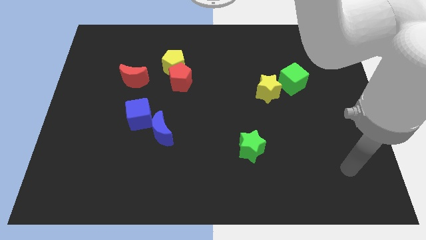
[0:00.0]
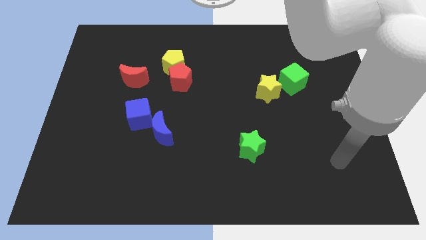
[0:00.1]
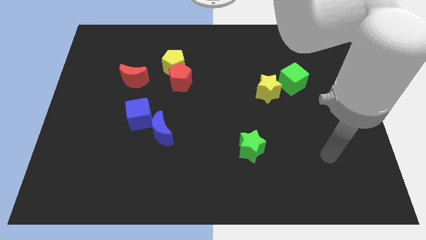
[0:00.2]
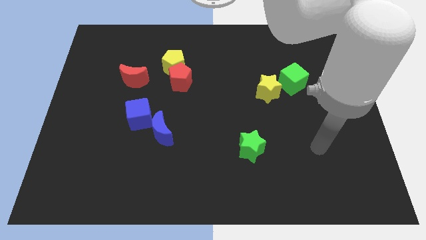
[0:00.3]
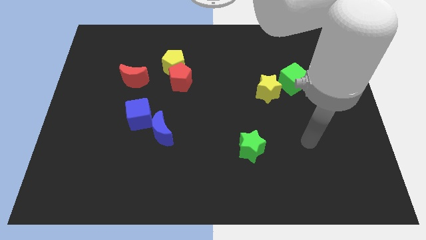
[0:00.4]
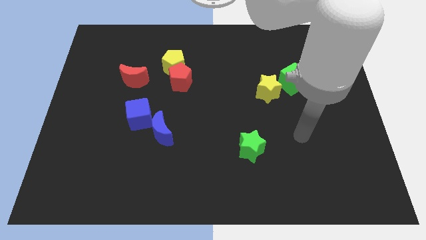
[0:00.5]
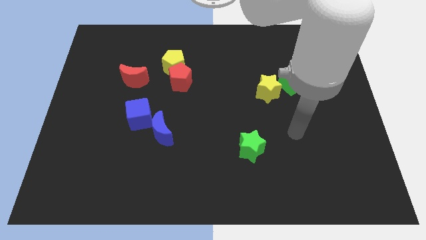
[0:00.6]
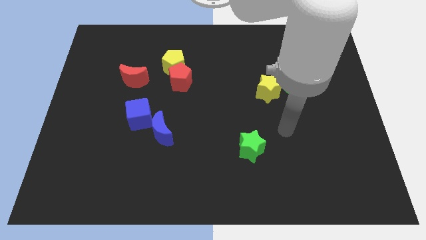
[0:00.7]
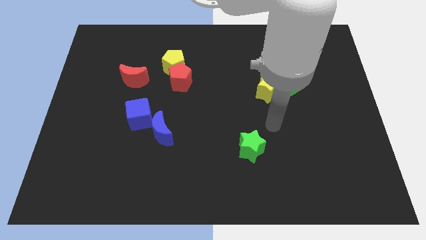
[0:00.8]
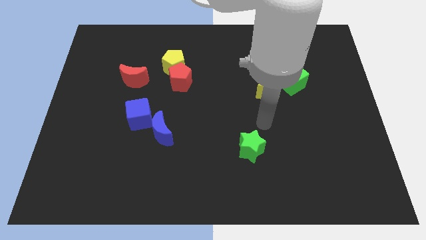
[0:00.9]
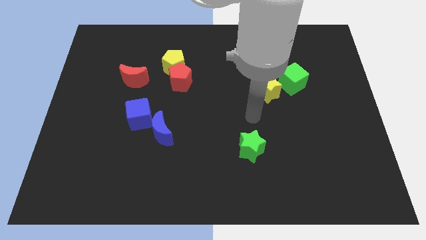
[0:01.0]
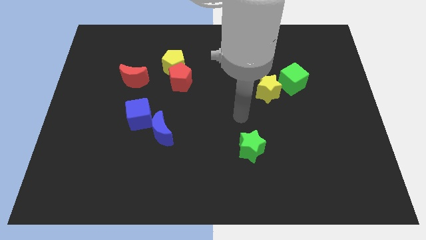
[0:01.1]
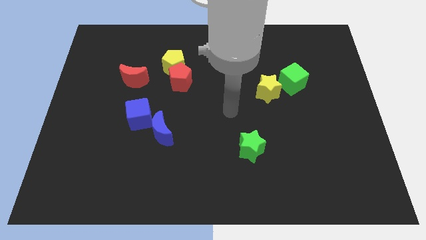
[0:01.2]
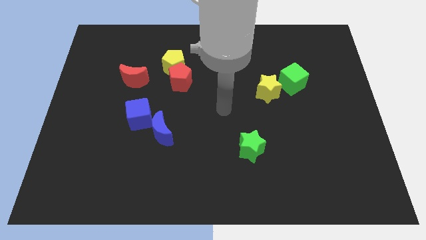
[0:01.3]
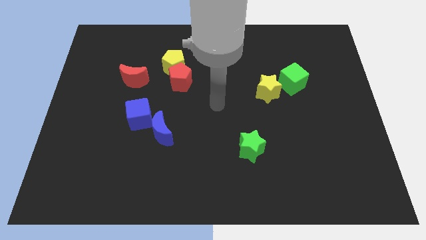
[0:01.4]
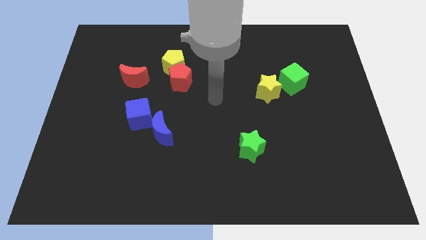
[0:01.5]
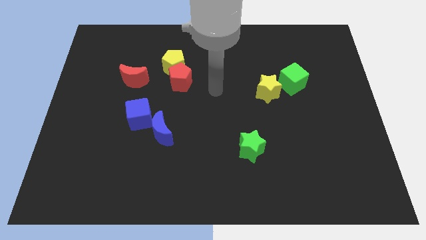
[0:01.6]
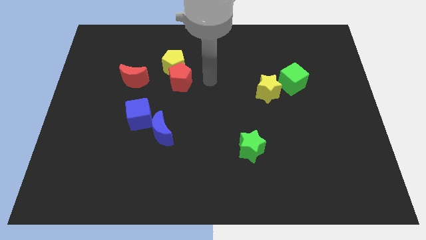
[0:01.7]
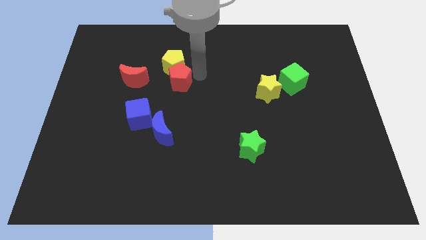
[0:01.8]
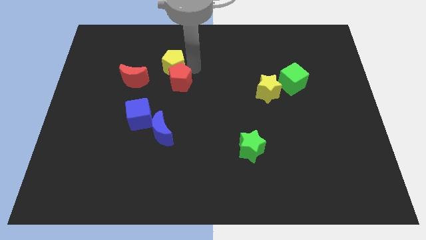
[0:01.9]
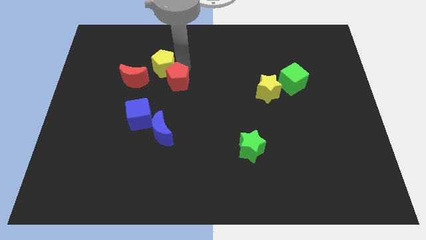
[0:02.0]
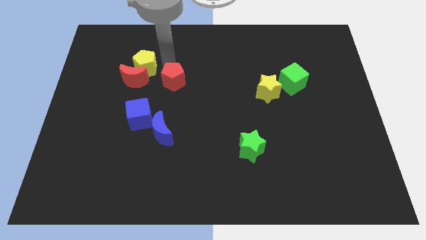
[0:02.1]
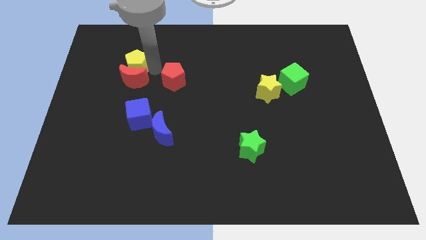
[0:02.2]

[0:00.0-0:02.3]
move the red pentagon away from the yellow pentagon

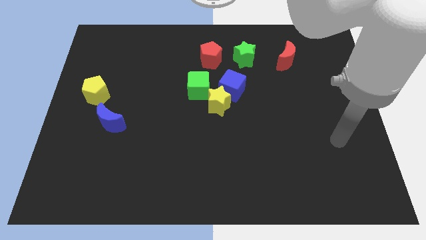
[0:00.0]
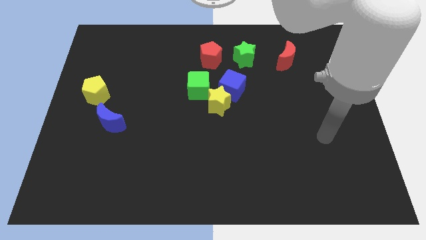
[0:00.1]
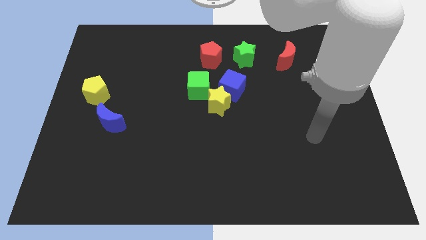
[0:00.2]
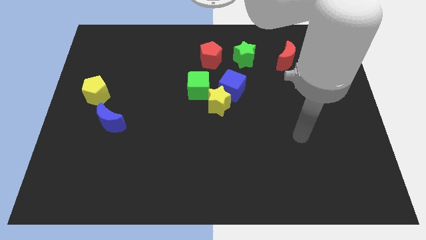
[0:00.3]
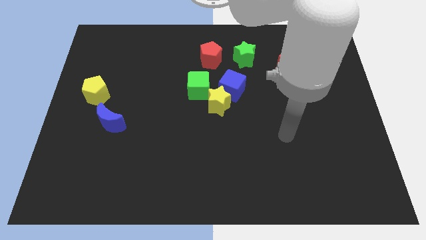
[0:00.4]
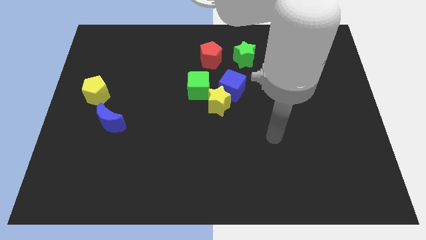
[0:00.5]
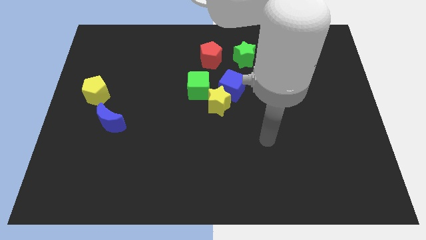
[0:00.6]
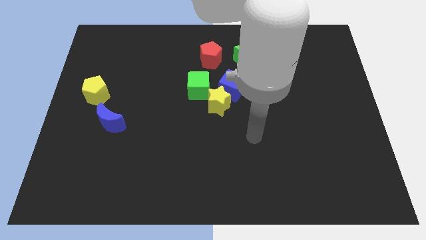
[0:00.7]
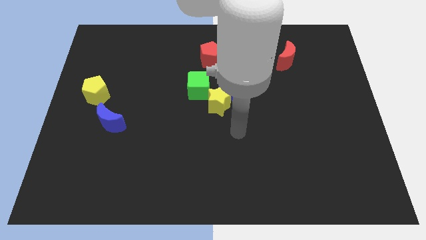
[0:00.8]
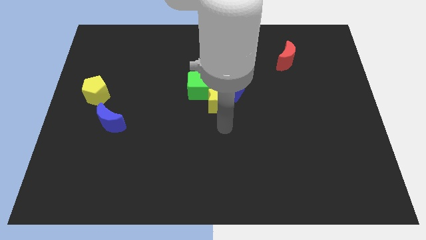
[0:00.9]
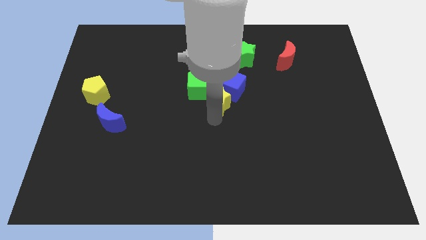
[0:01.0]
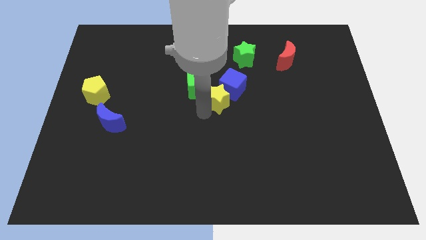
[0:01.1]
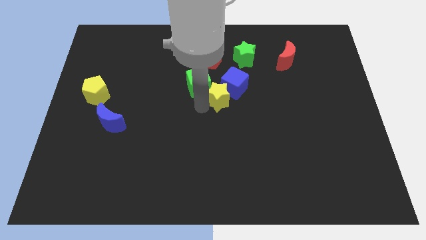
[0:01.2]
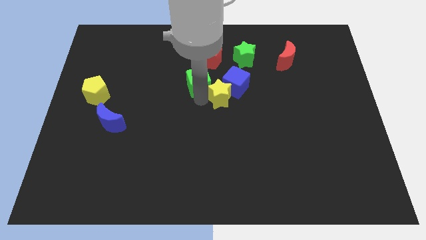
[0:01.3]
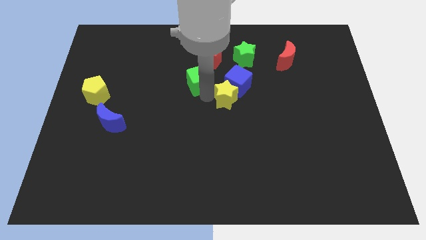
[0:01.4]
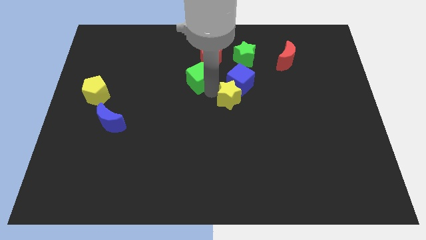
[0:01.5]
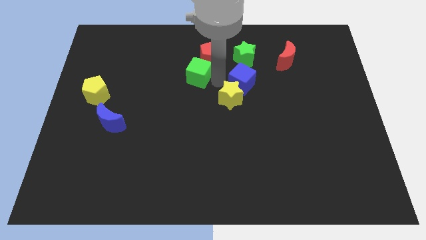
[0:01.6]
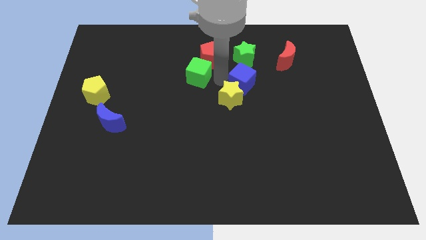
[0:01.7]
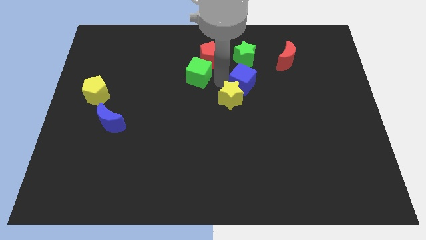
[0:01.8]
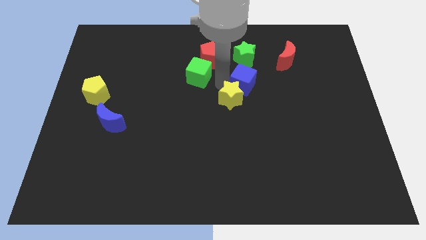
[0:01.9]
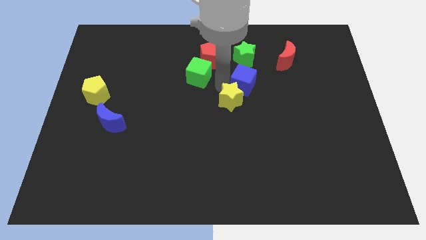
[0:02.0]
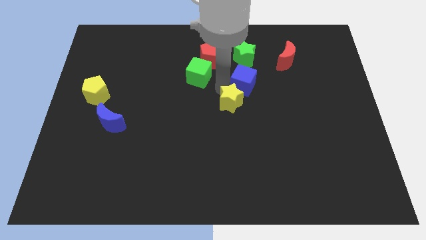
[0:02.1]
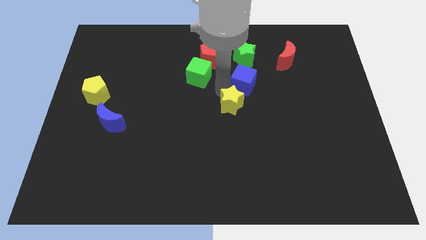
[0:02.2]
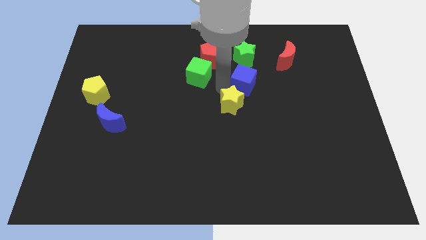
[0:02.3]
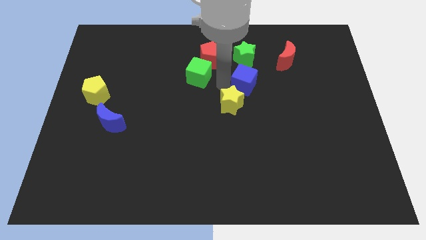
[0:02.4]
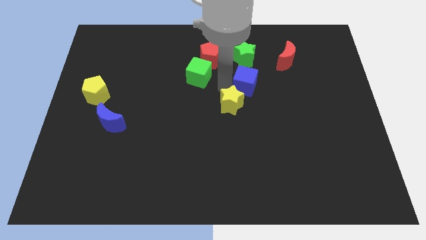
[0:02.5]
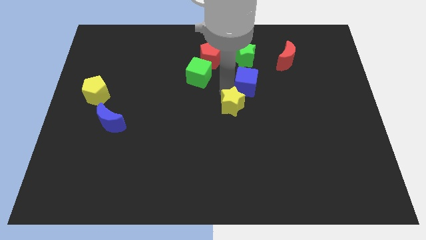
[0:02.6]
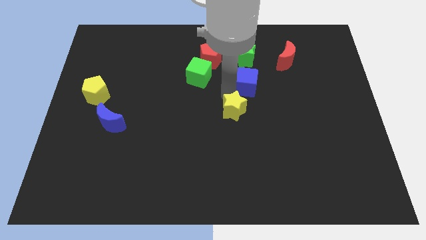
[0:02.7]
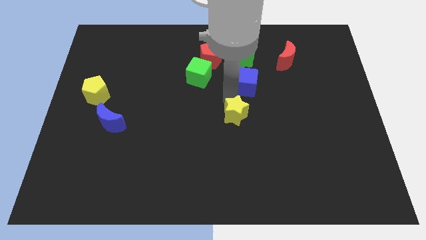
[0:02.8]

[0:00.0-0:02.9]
separate the yellow star from the blue cube and green cube

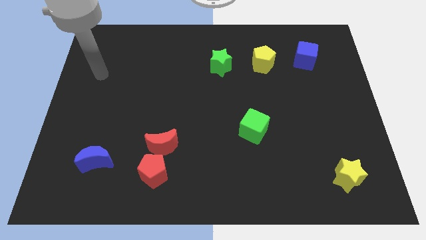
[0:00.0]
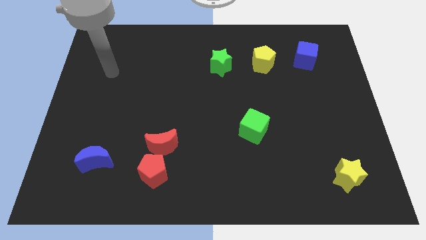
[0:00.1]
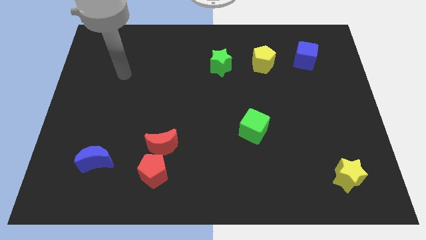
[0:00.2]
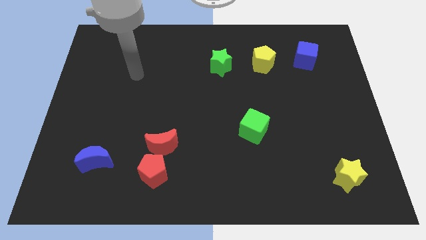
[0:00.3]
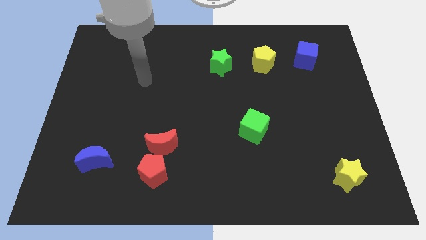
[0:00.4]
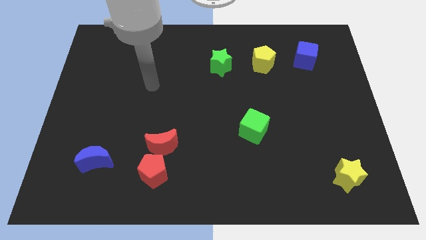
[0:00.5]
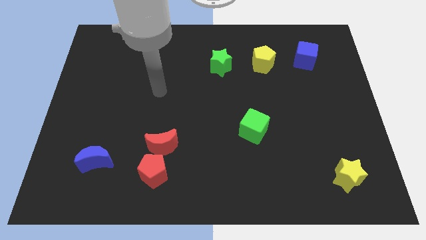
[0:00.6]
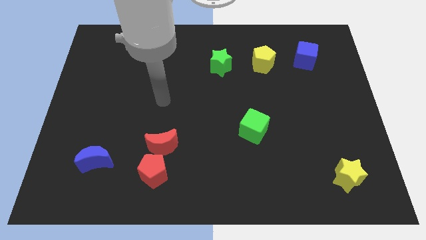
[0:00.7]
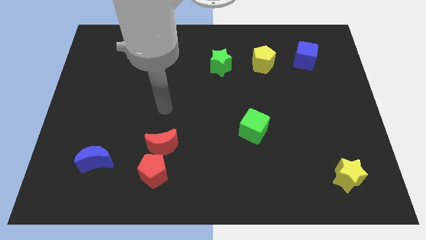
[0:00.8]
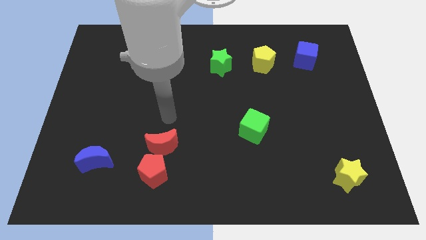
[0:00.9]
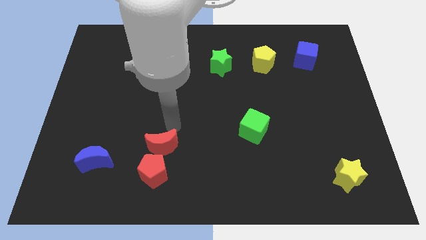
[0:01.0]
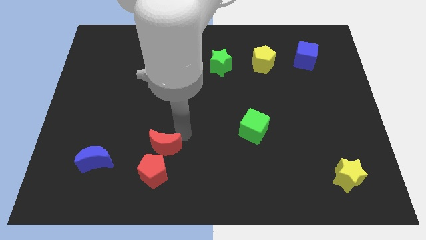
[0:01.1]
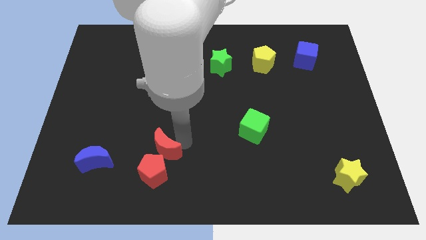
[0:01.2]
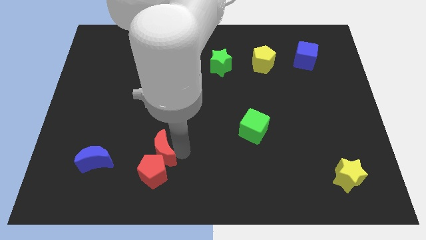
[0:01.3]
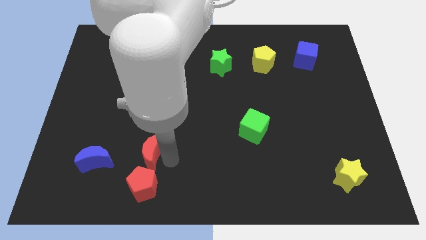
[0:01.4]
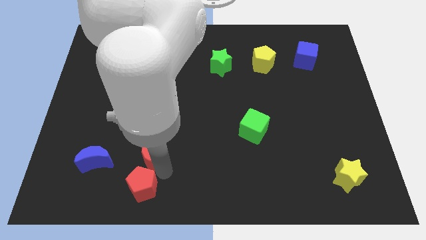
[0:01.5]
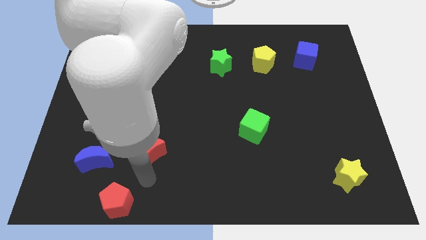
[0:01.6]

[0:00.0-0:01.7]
move the red moon away from the red pentagon

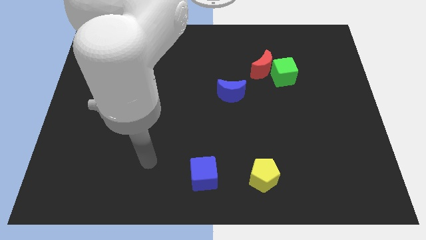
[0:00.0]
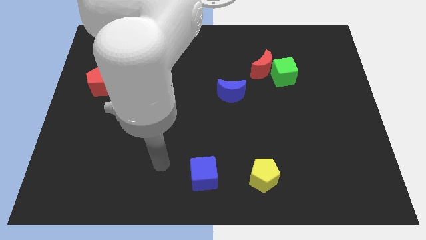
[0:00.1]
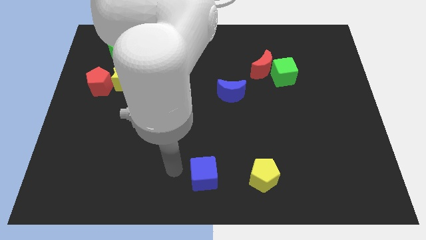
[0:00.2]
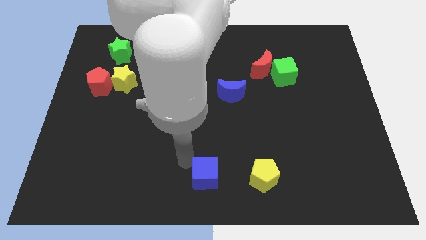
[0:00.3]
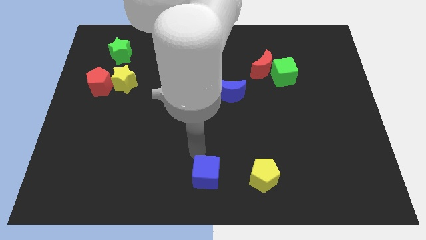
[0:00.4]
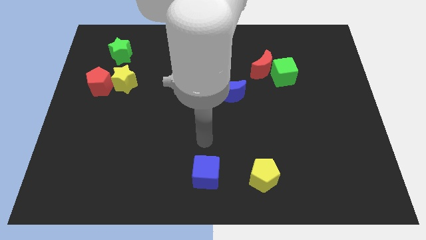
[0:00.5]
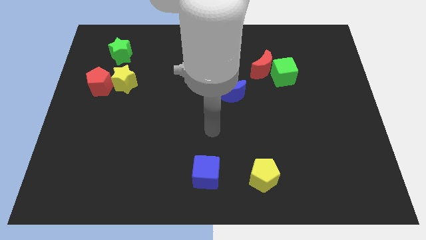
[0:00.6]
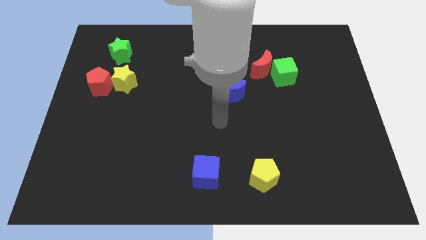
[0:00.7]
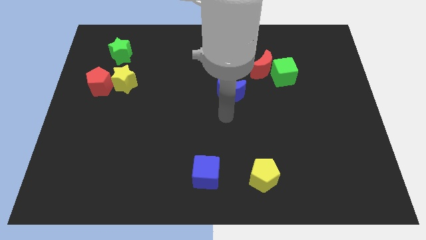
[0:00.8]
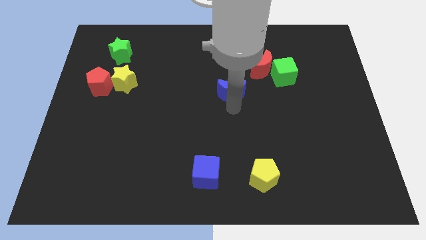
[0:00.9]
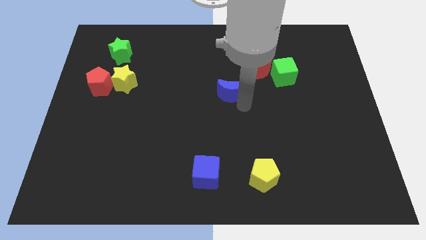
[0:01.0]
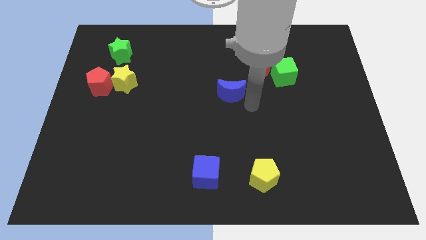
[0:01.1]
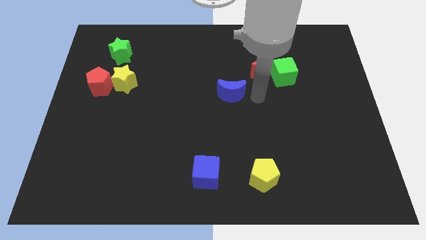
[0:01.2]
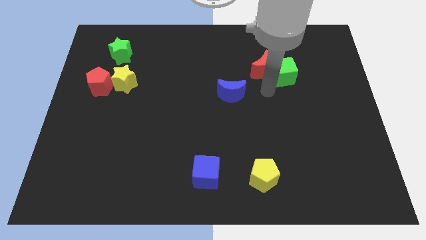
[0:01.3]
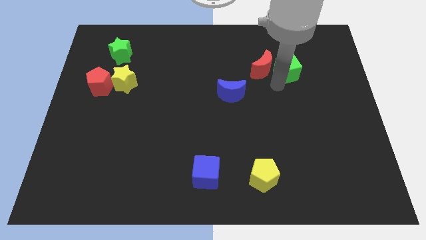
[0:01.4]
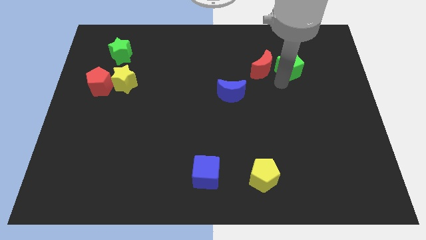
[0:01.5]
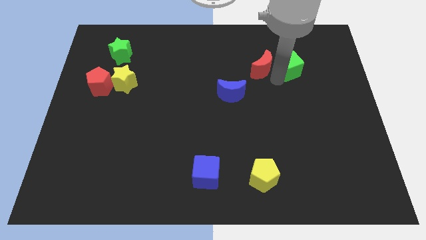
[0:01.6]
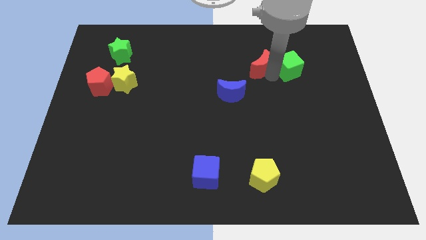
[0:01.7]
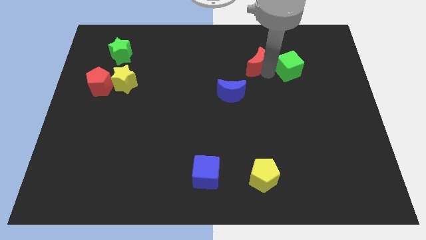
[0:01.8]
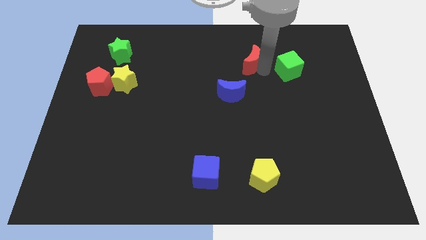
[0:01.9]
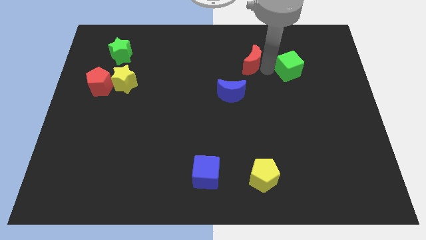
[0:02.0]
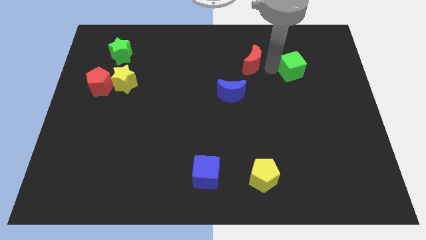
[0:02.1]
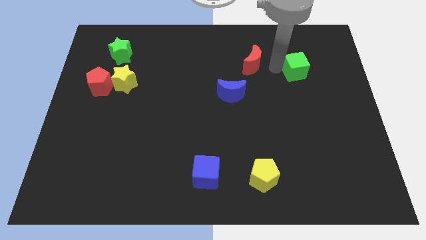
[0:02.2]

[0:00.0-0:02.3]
separate the red moon from the green cube
